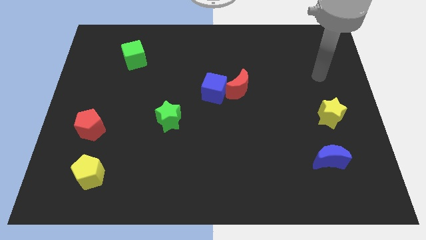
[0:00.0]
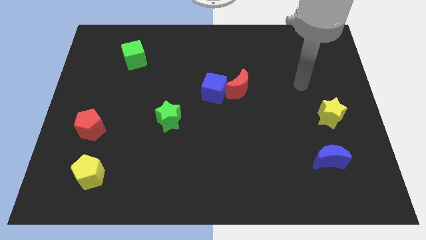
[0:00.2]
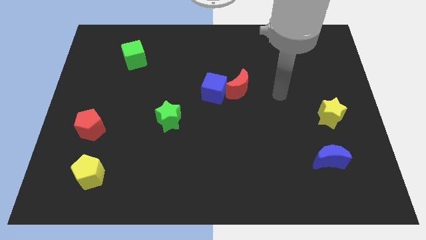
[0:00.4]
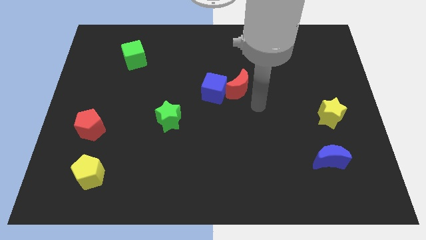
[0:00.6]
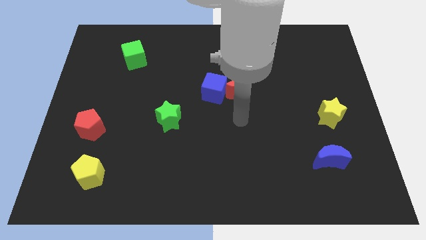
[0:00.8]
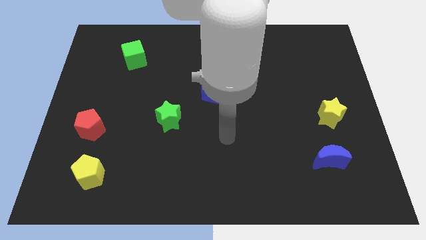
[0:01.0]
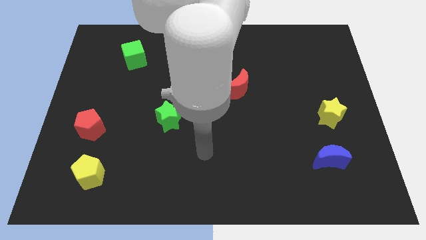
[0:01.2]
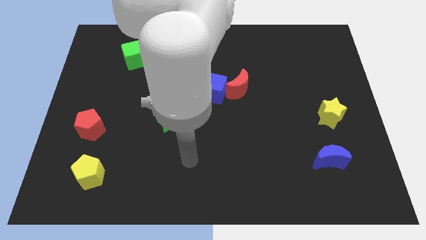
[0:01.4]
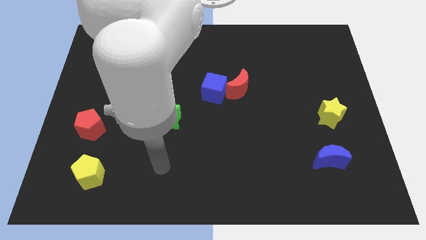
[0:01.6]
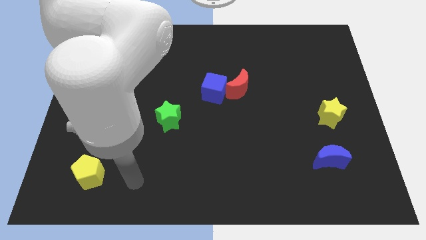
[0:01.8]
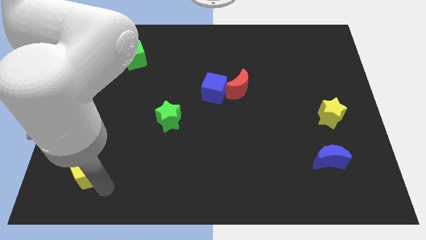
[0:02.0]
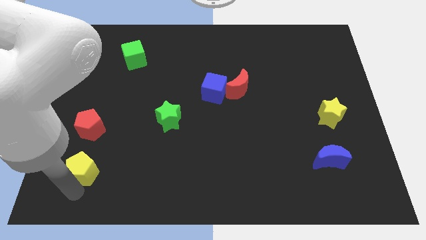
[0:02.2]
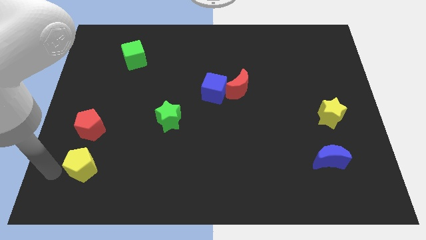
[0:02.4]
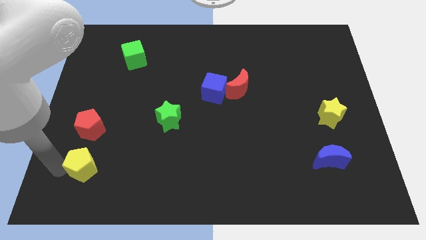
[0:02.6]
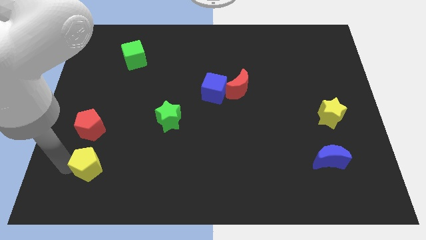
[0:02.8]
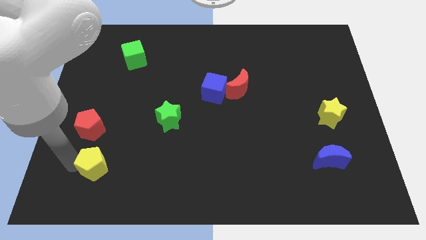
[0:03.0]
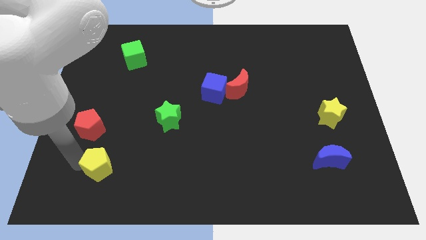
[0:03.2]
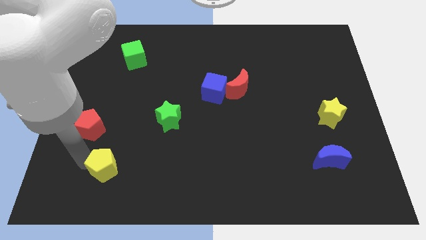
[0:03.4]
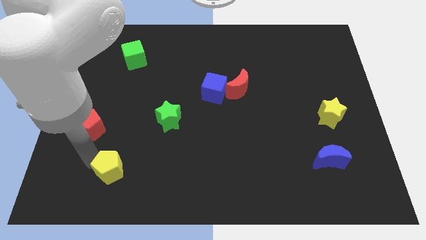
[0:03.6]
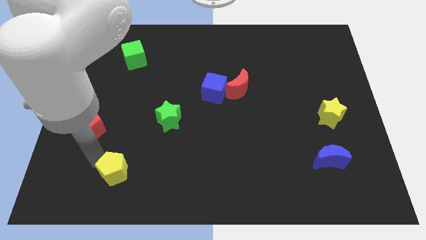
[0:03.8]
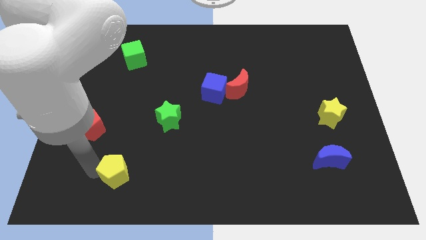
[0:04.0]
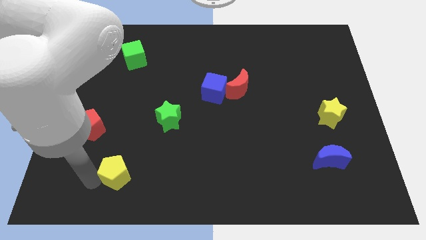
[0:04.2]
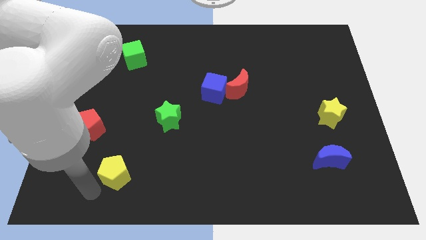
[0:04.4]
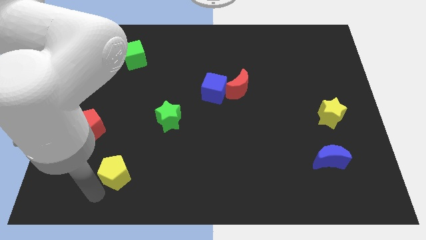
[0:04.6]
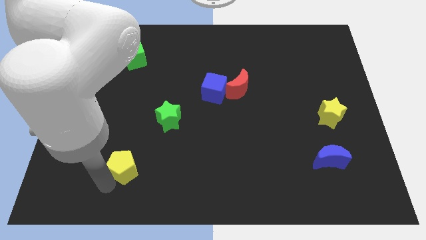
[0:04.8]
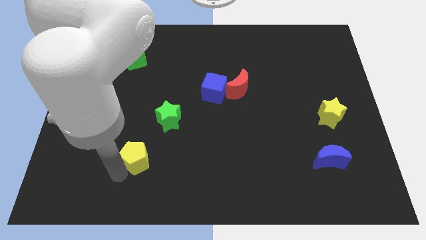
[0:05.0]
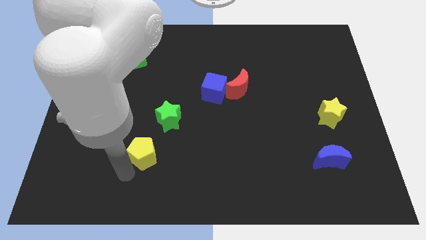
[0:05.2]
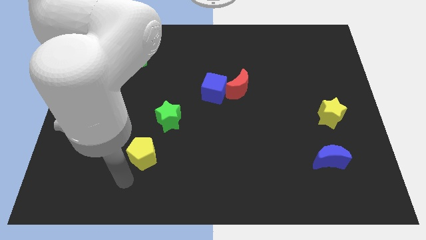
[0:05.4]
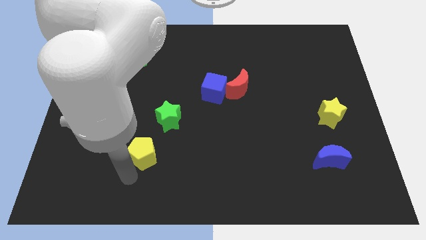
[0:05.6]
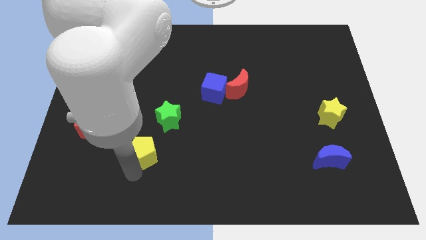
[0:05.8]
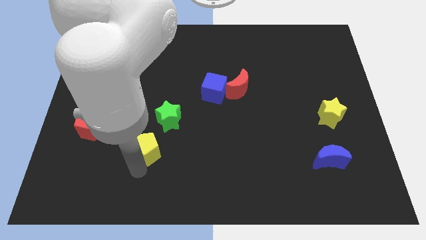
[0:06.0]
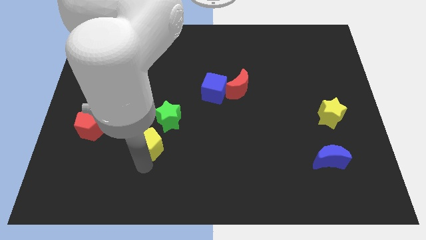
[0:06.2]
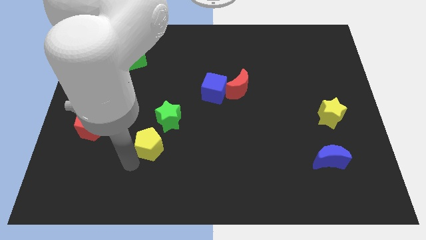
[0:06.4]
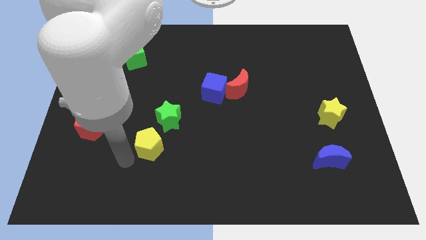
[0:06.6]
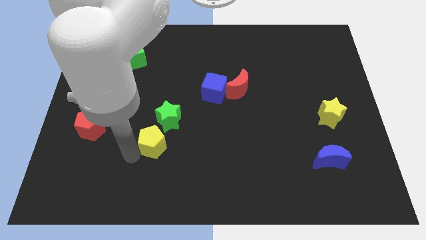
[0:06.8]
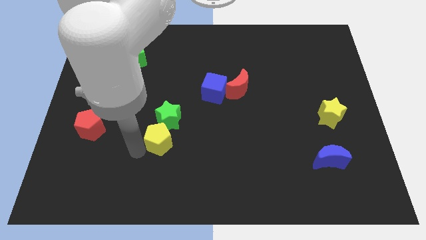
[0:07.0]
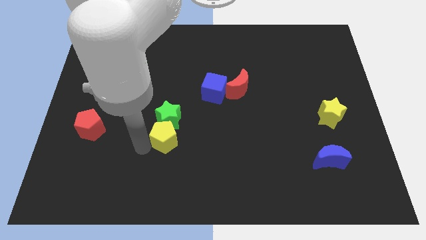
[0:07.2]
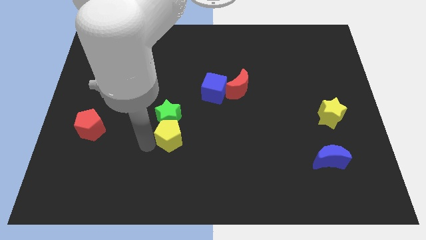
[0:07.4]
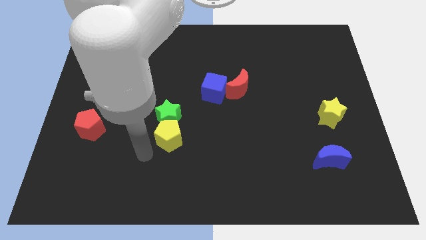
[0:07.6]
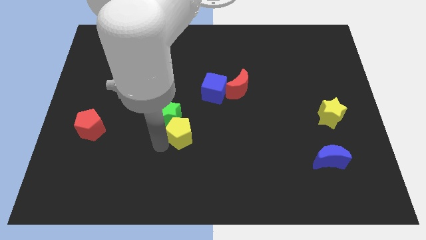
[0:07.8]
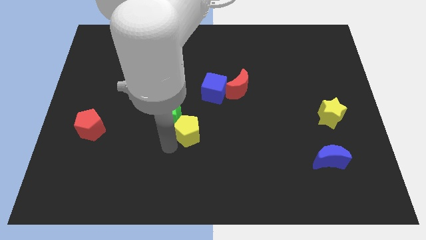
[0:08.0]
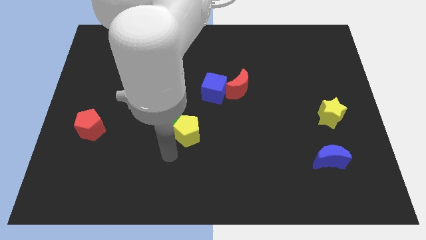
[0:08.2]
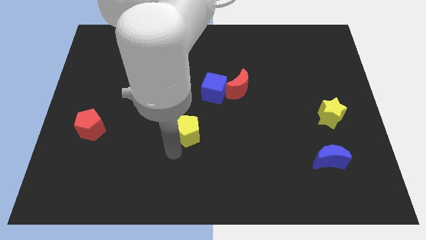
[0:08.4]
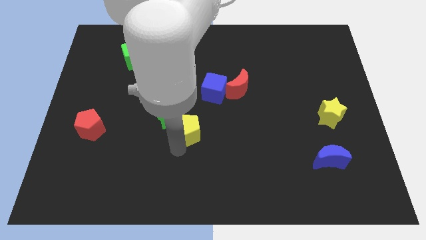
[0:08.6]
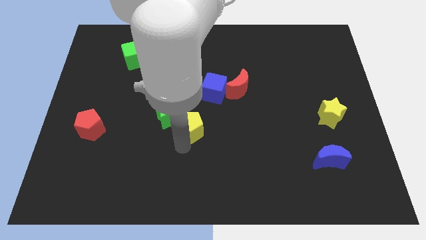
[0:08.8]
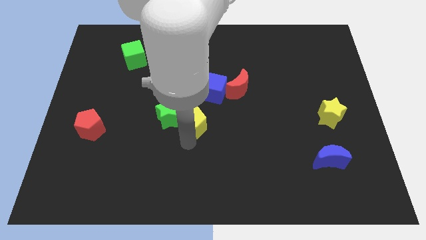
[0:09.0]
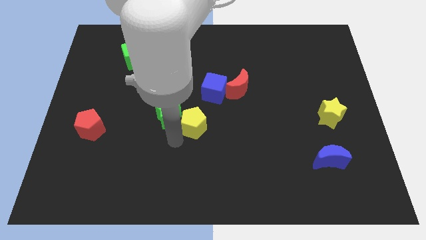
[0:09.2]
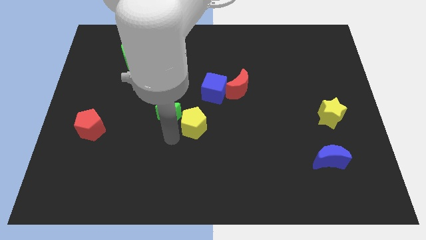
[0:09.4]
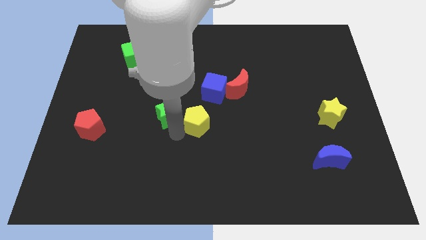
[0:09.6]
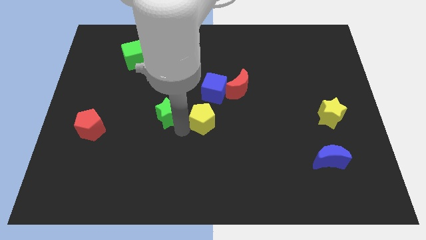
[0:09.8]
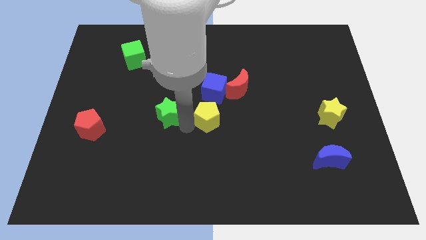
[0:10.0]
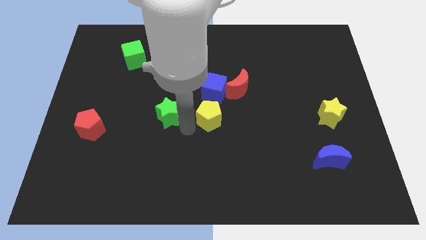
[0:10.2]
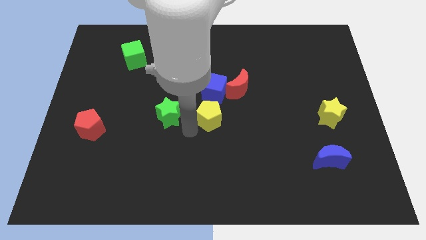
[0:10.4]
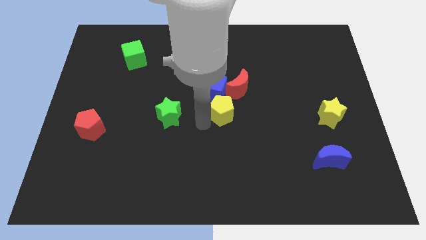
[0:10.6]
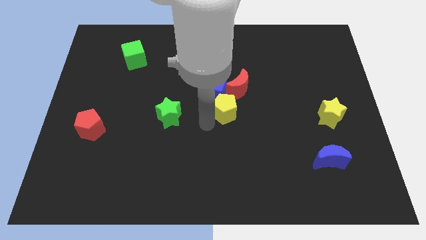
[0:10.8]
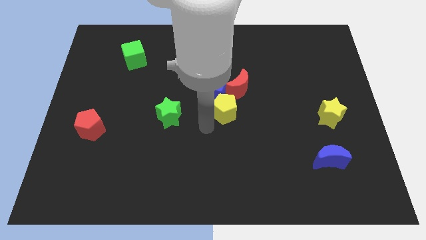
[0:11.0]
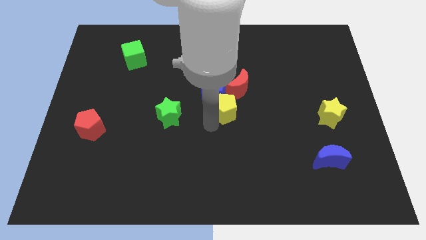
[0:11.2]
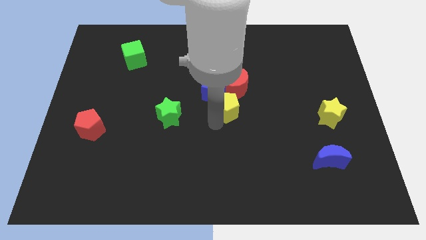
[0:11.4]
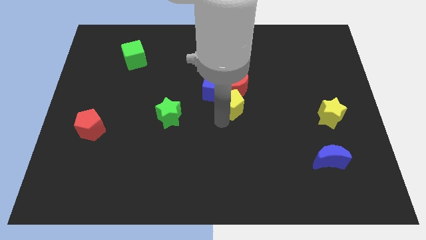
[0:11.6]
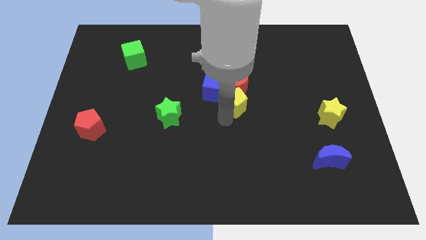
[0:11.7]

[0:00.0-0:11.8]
slide the yellow pentagon just right of the blue cube

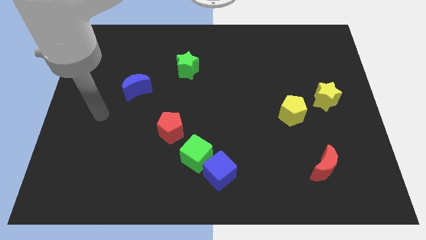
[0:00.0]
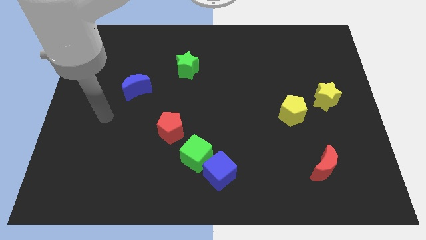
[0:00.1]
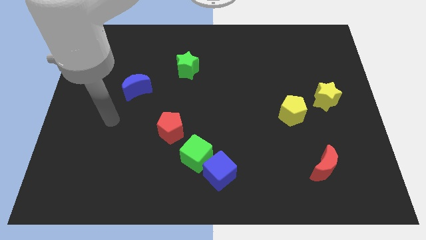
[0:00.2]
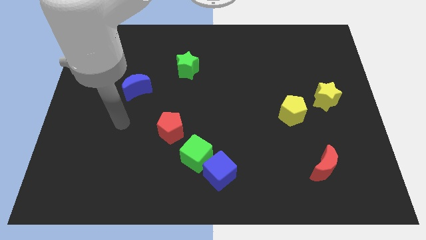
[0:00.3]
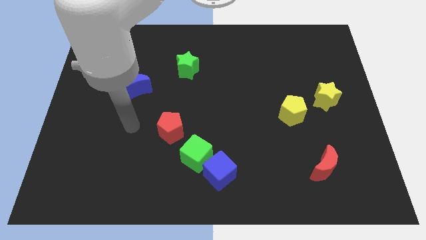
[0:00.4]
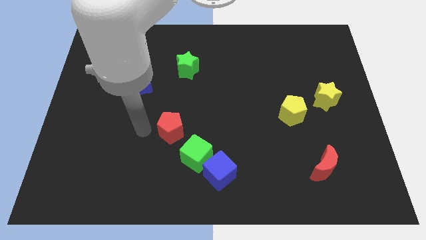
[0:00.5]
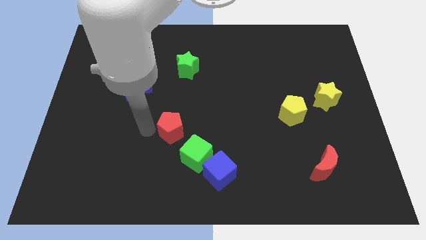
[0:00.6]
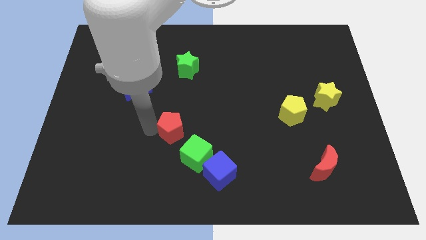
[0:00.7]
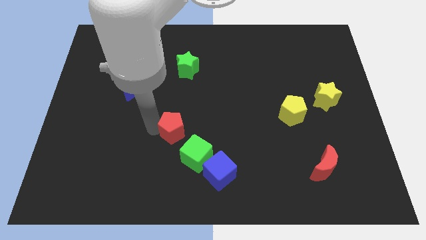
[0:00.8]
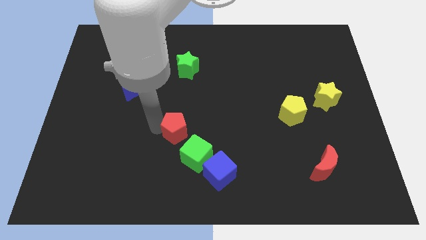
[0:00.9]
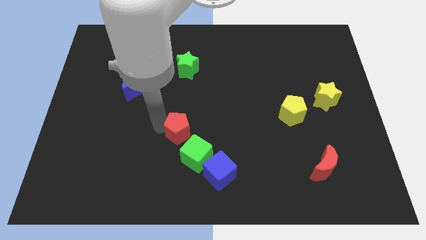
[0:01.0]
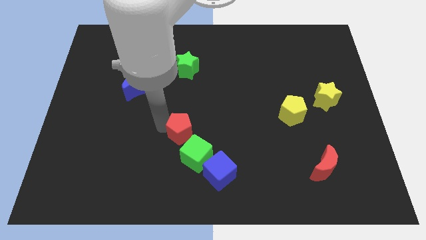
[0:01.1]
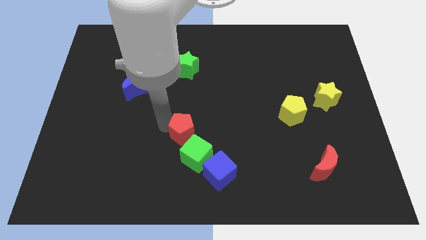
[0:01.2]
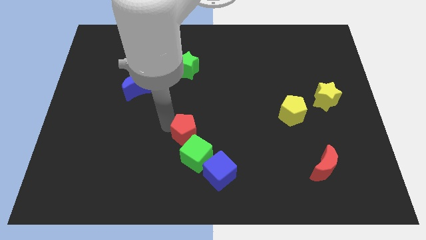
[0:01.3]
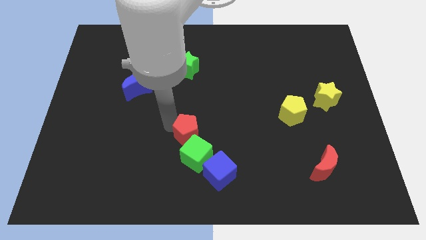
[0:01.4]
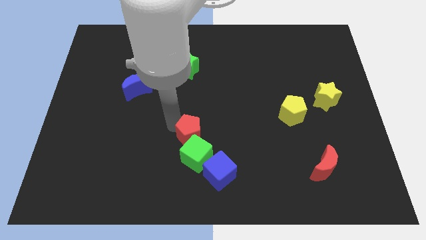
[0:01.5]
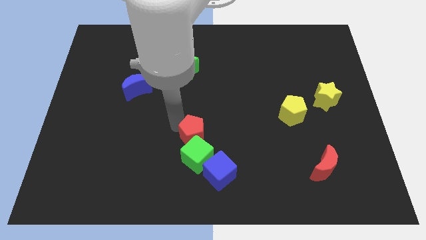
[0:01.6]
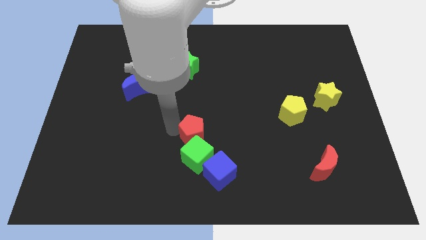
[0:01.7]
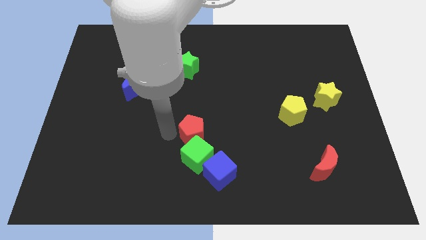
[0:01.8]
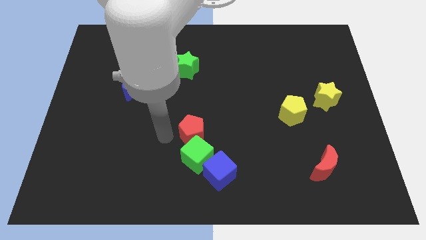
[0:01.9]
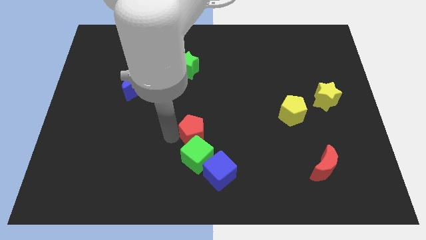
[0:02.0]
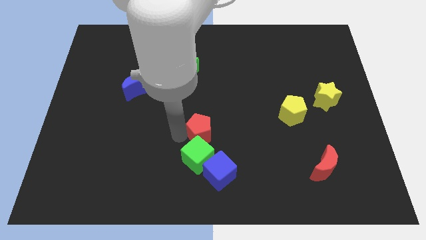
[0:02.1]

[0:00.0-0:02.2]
put the red pentagon above the blue cube
